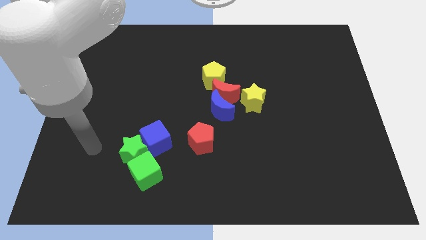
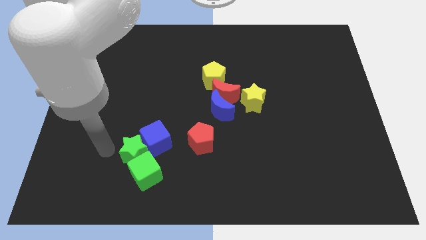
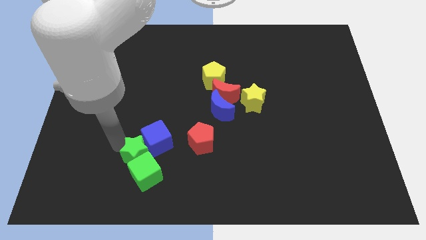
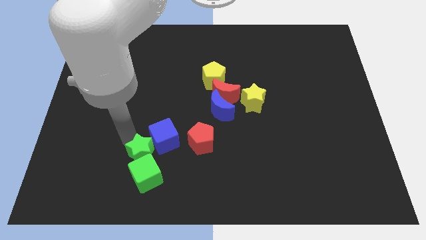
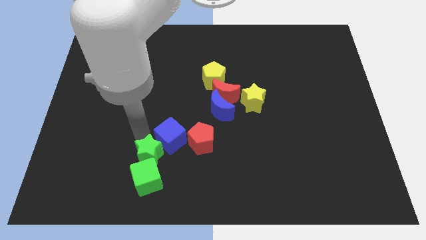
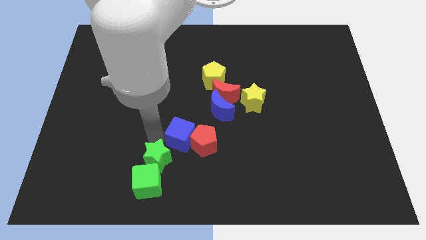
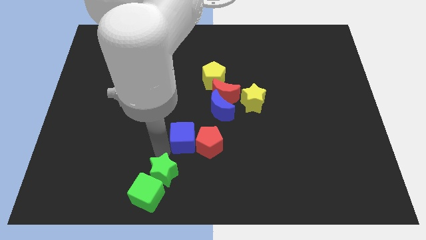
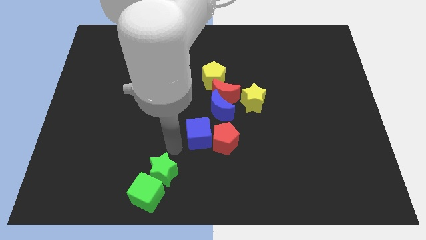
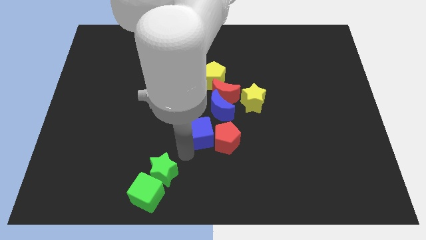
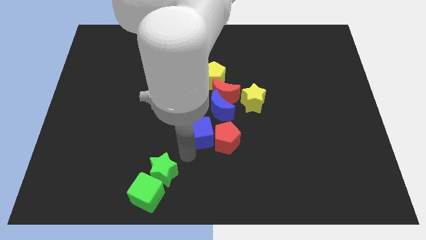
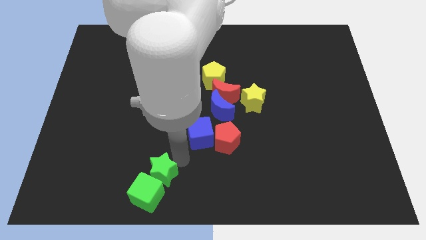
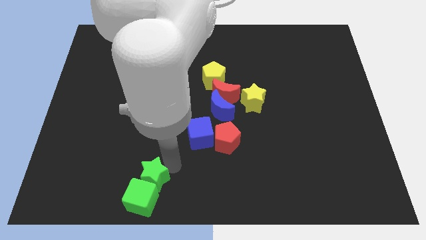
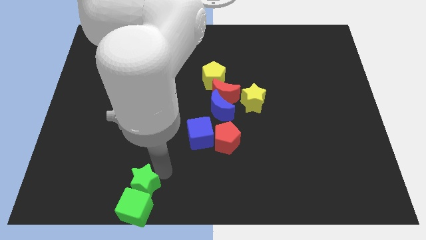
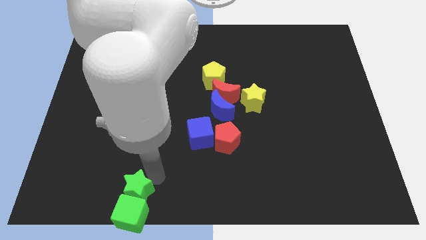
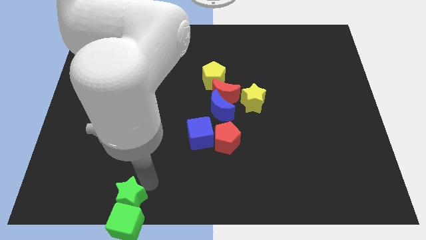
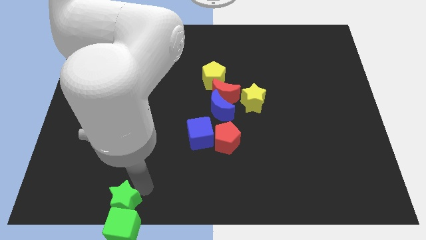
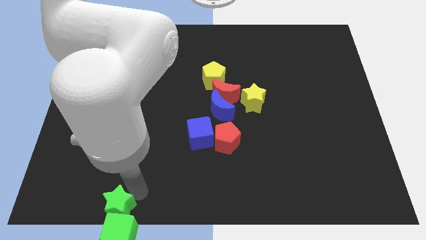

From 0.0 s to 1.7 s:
pull the green star apart from the green cube and blue cube

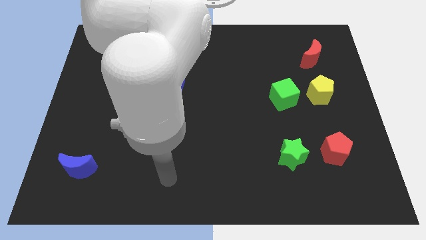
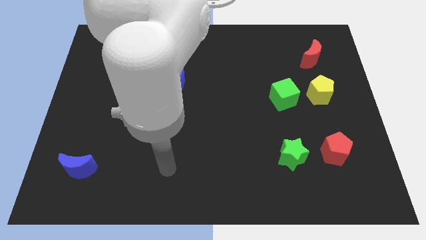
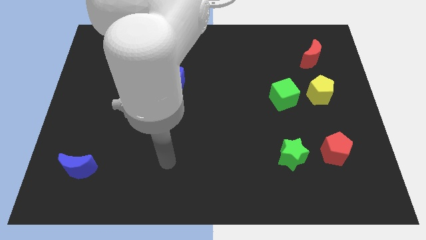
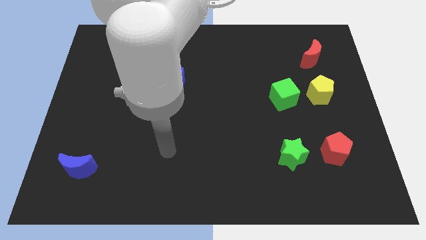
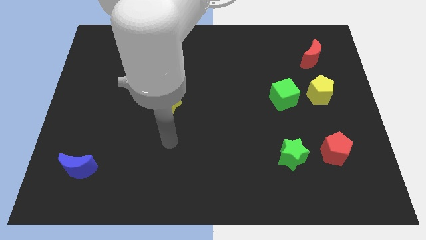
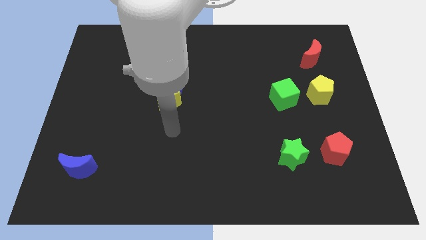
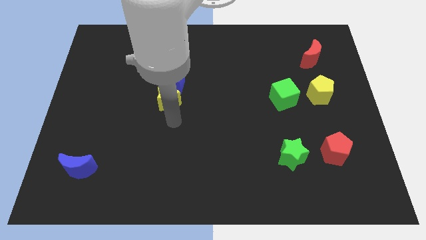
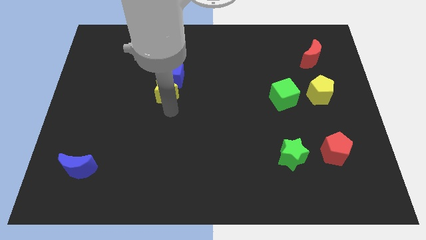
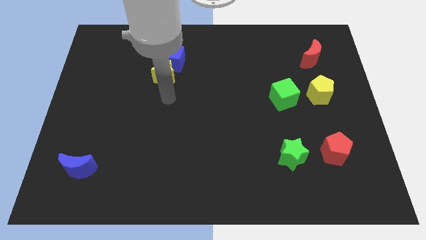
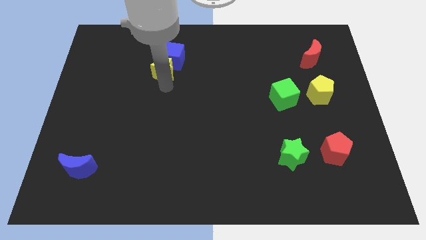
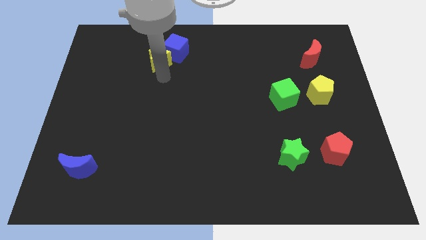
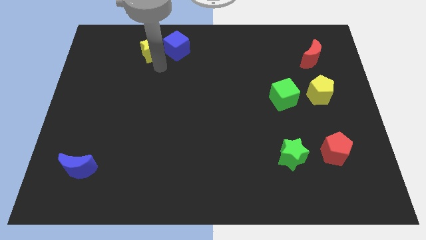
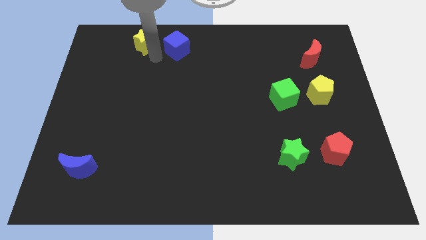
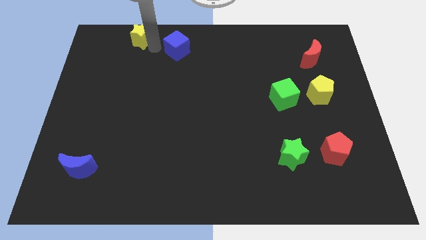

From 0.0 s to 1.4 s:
move the blue cube away from the yellow star

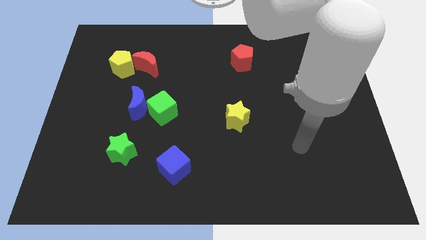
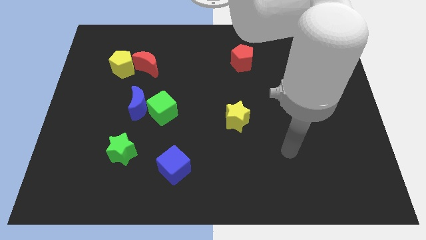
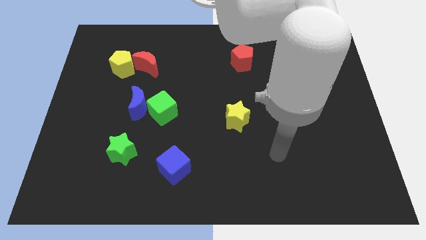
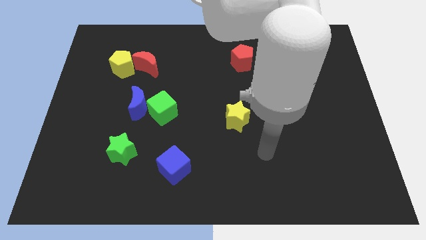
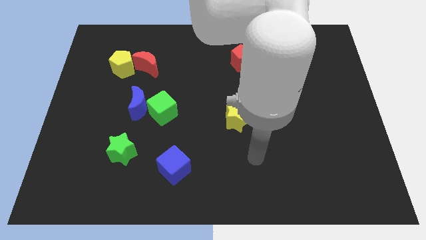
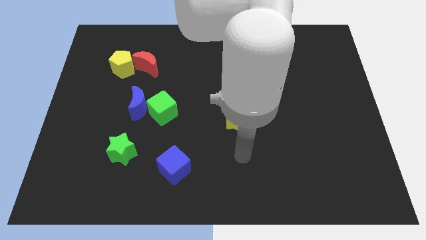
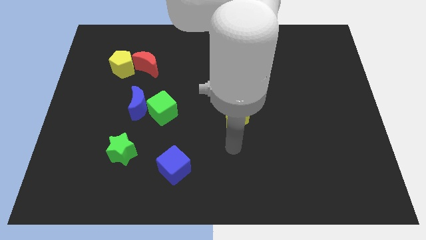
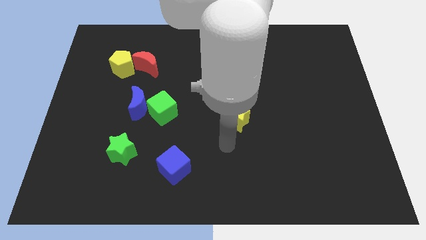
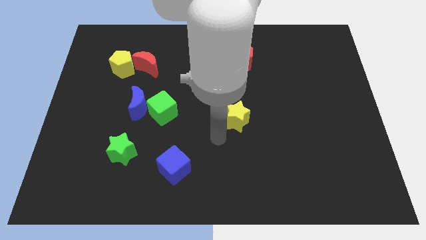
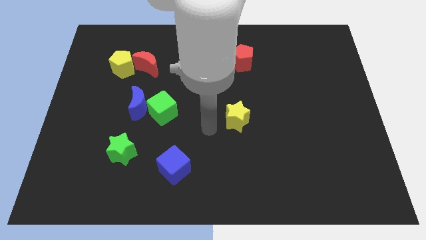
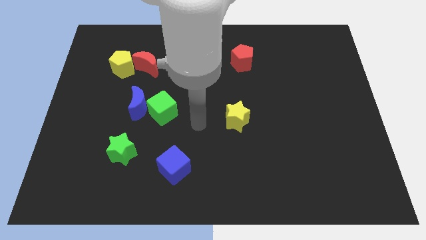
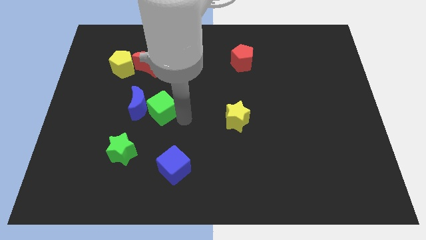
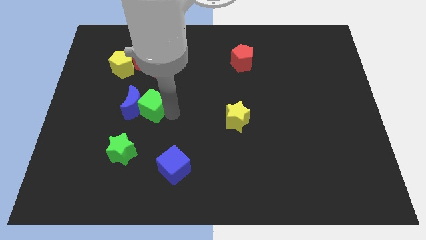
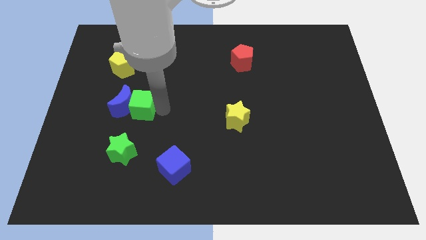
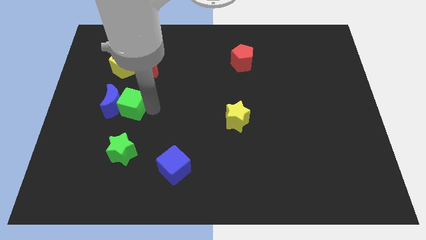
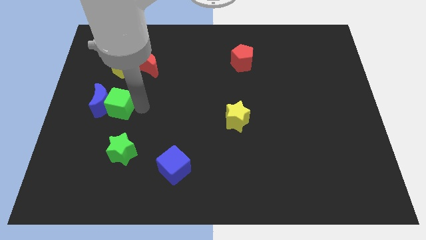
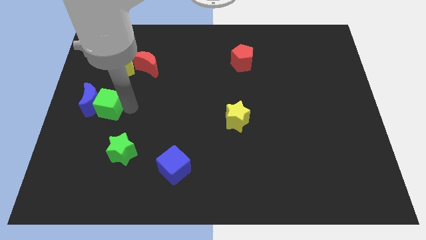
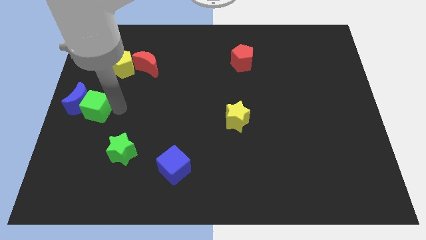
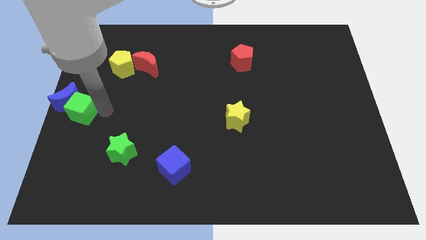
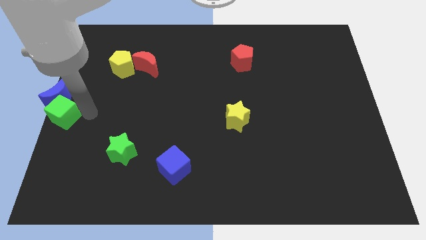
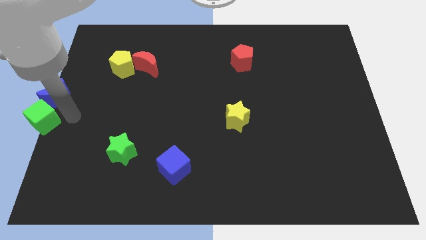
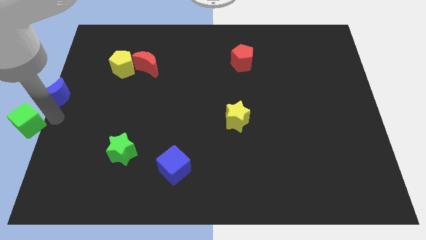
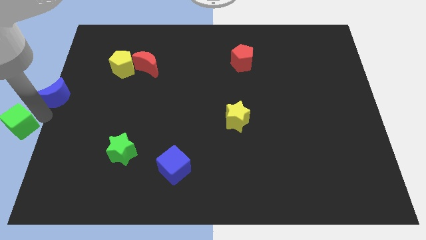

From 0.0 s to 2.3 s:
pull the blue moon apart from the green cube

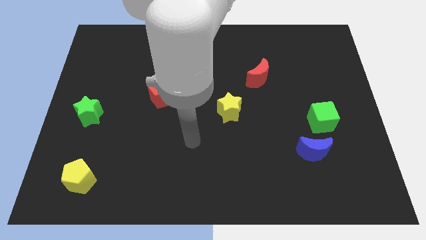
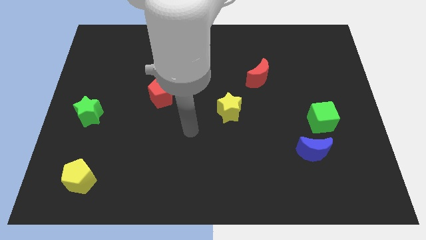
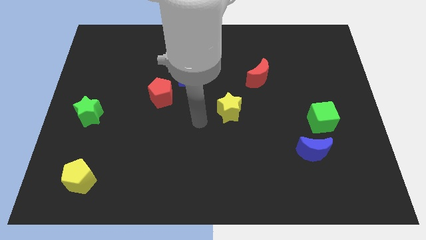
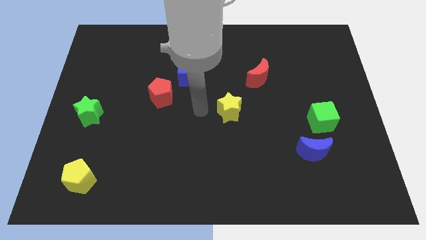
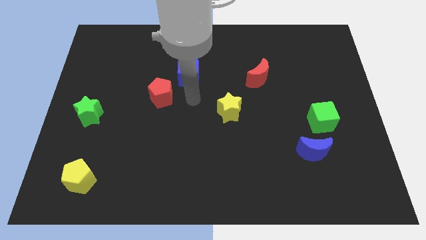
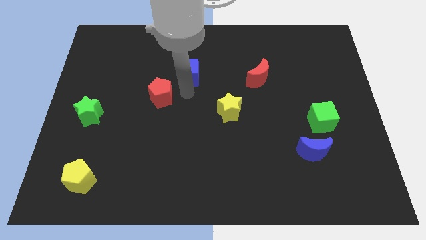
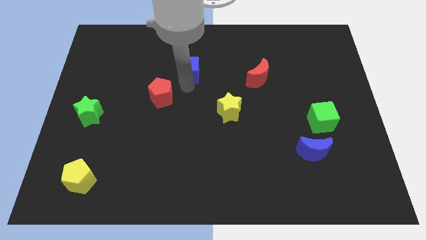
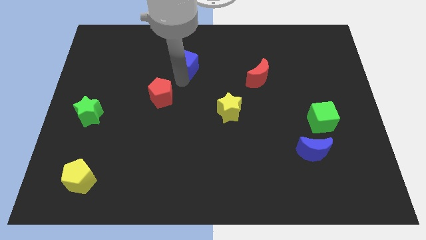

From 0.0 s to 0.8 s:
pull the red pentagon apart from the blue cube

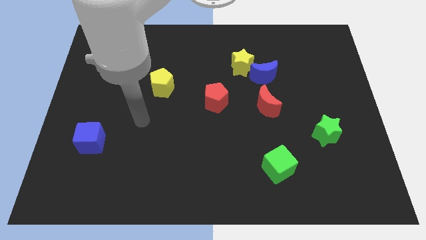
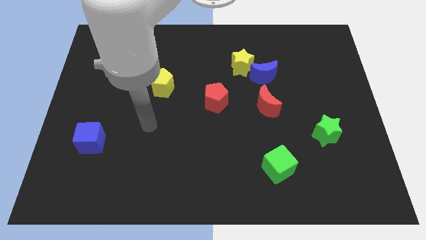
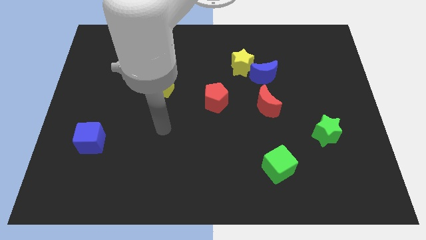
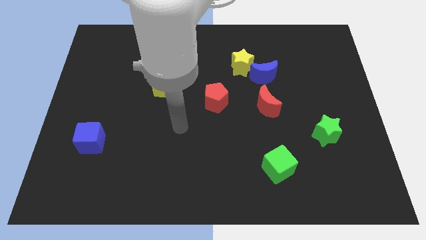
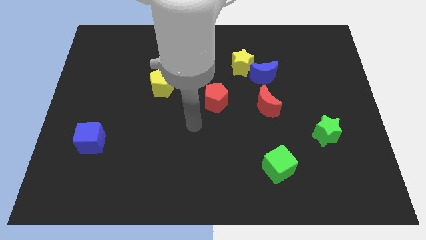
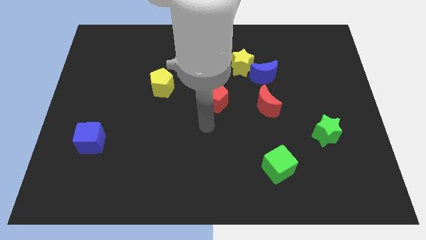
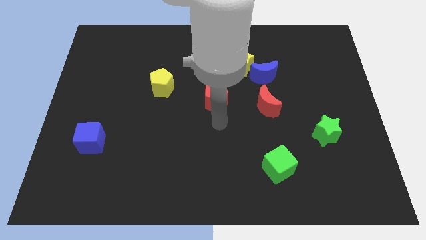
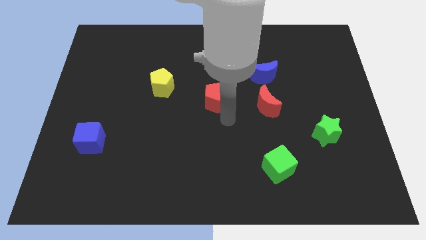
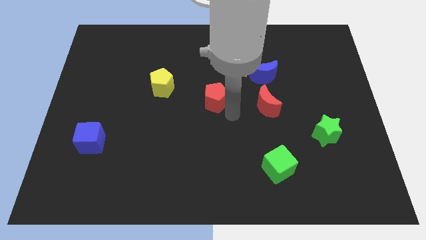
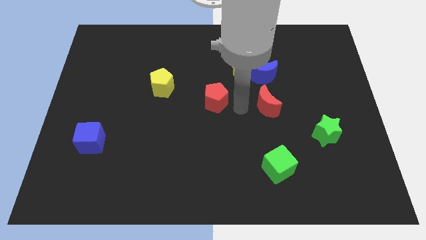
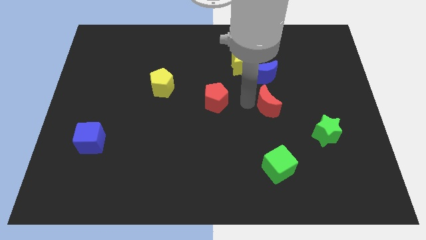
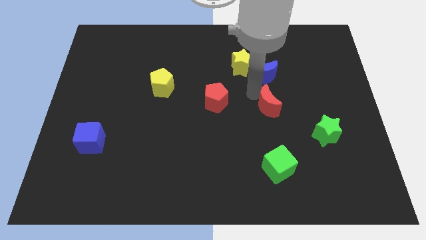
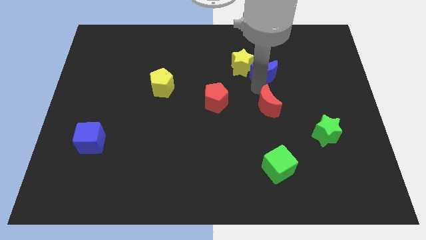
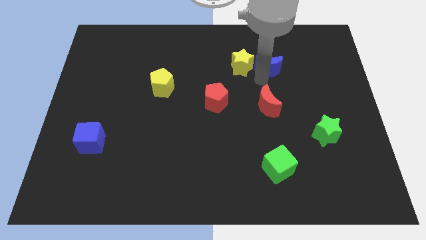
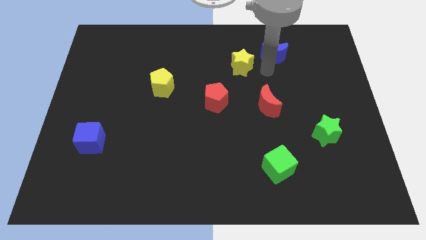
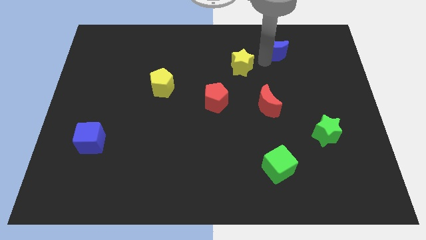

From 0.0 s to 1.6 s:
move the yellow star away from the blue moon

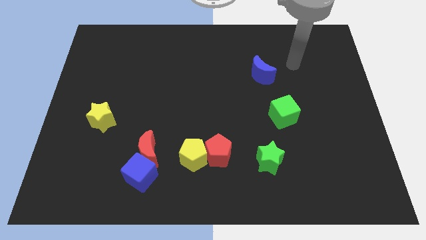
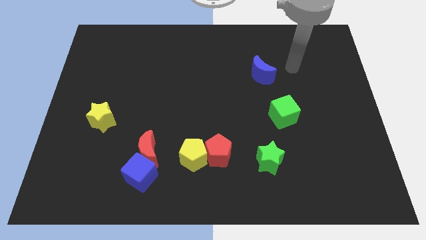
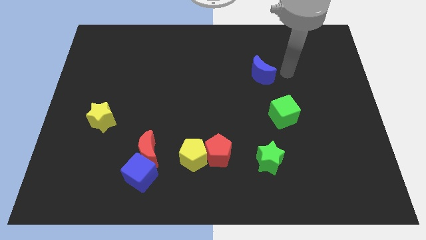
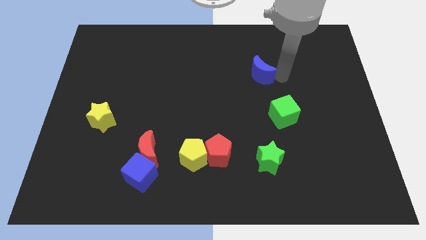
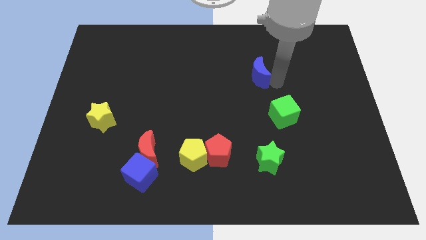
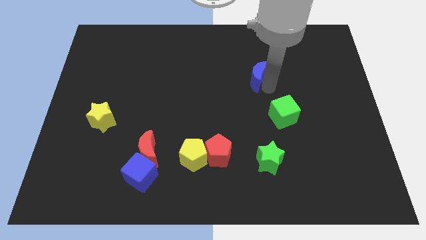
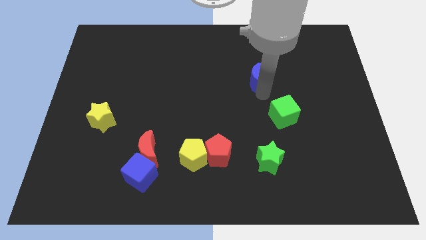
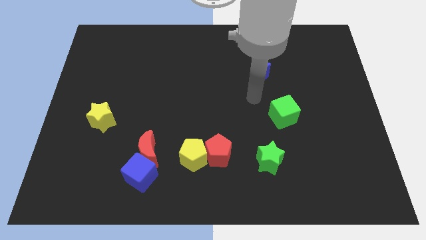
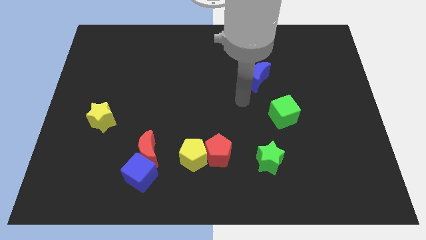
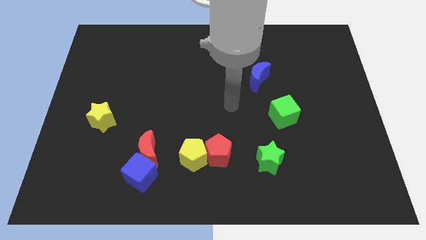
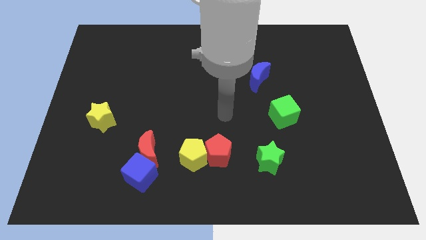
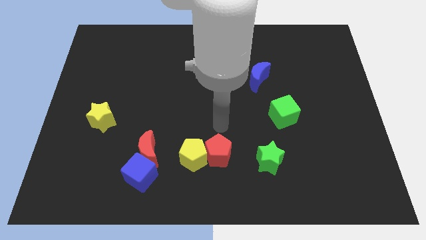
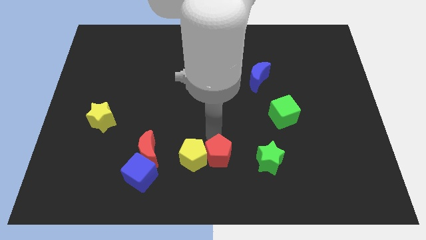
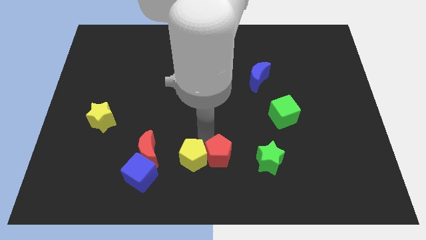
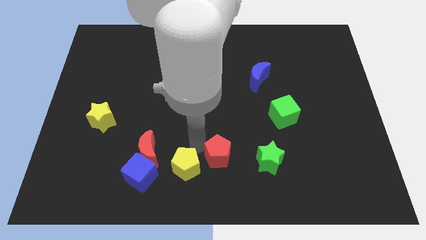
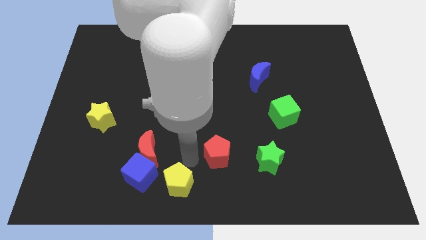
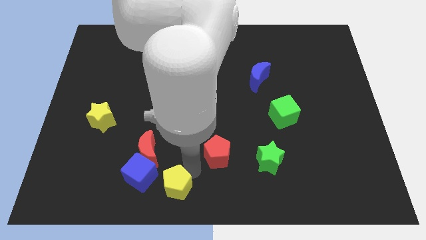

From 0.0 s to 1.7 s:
move the red pentagon away from the yellow pentagon
